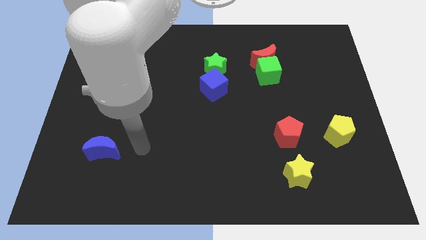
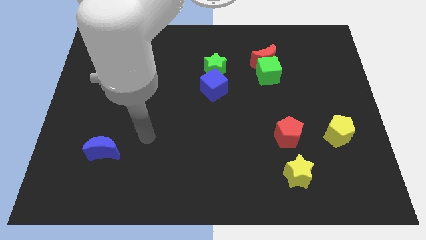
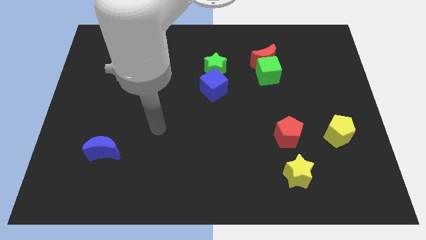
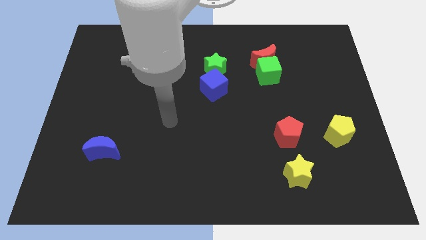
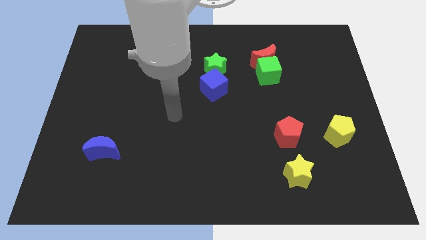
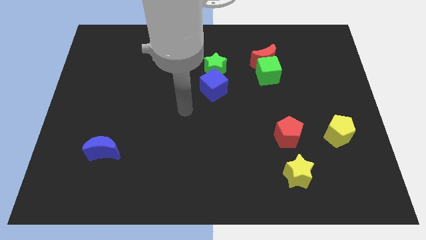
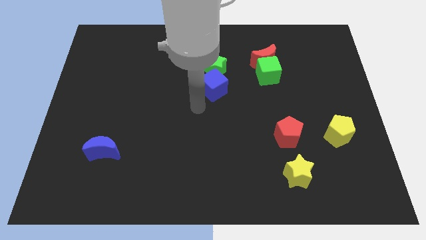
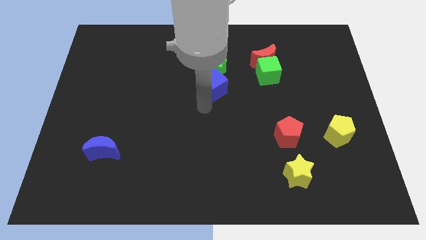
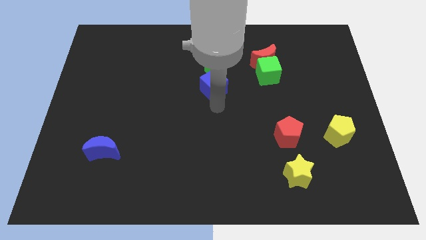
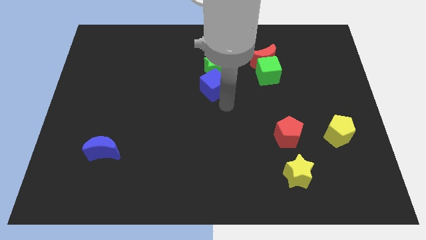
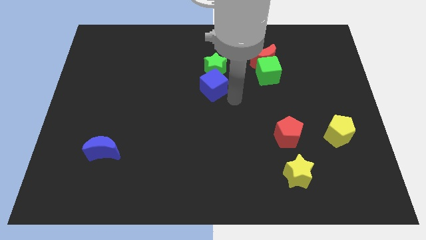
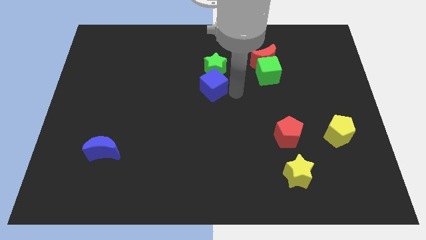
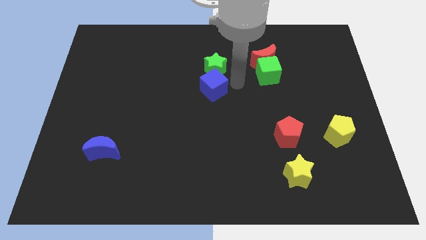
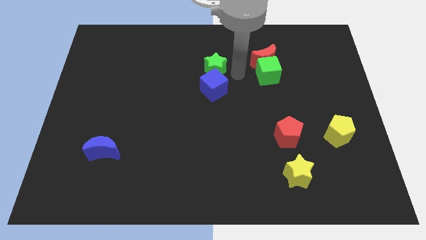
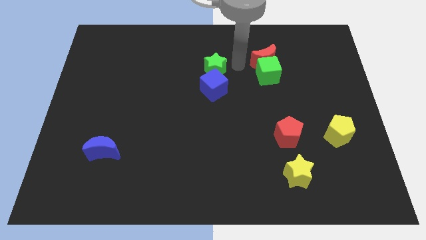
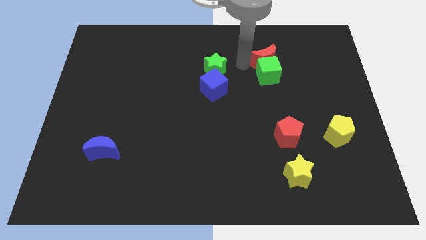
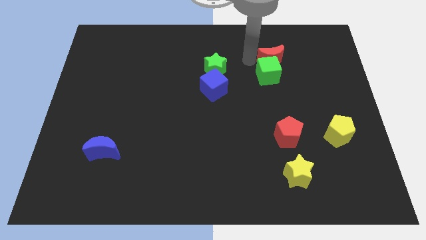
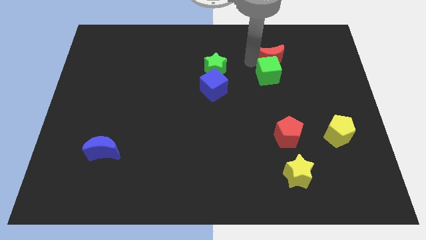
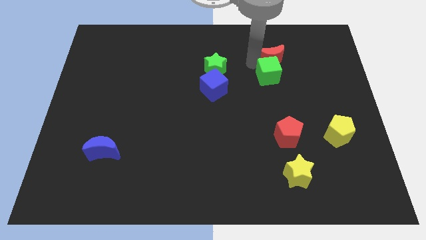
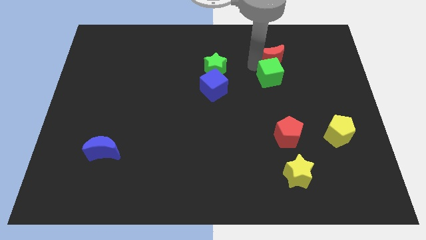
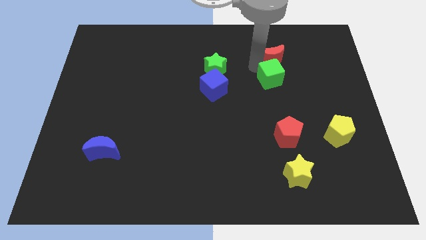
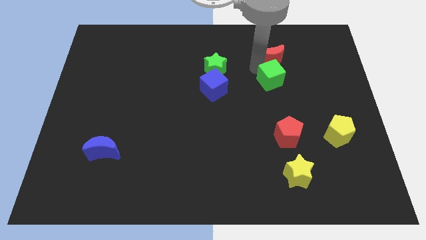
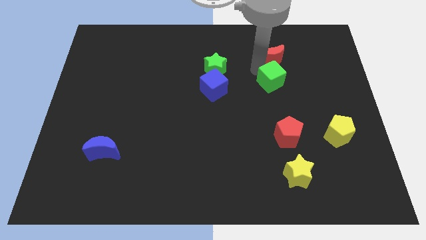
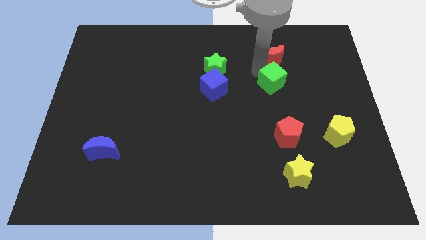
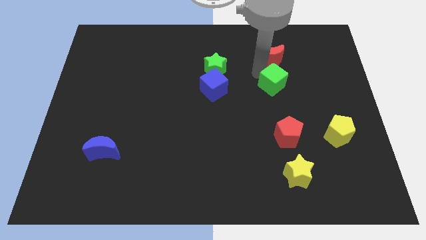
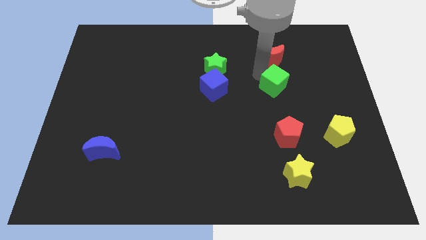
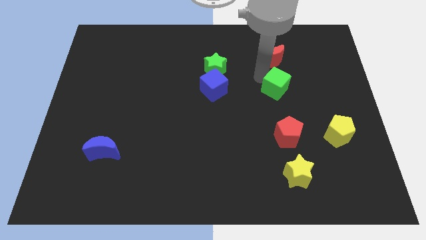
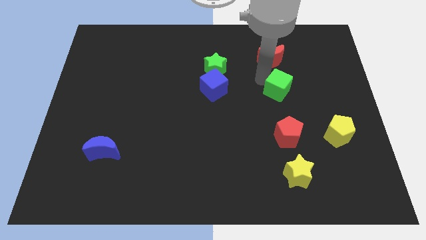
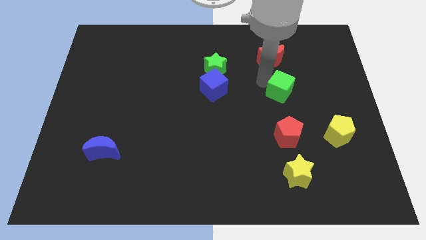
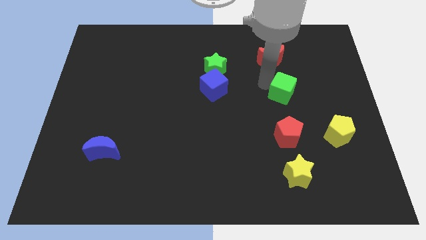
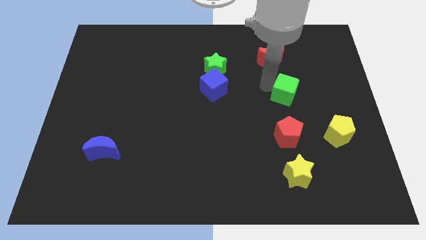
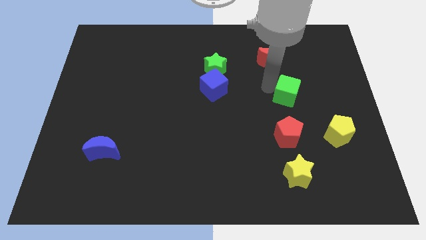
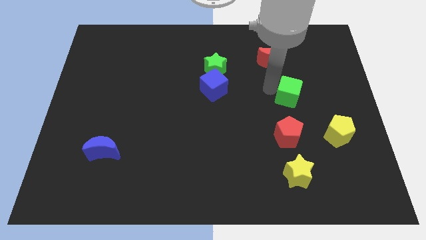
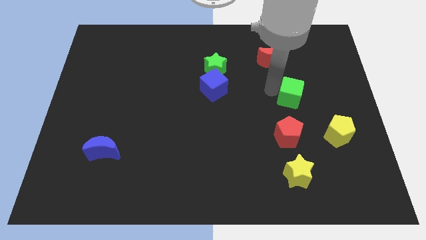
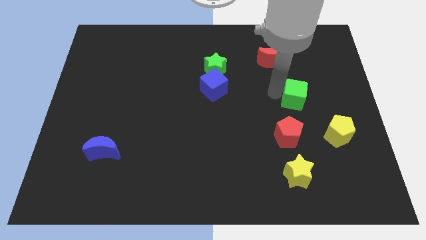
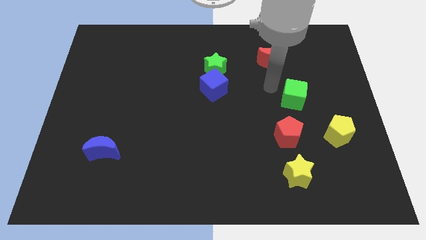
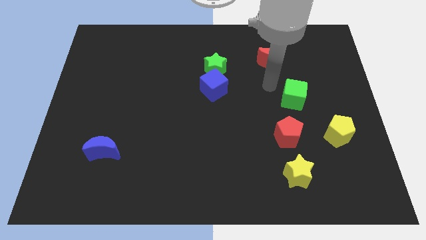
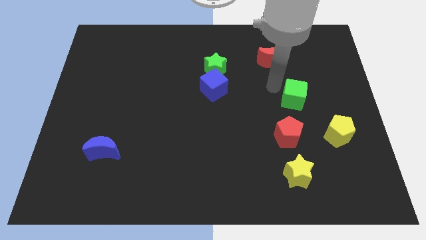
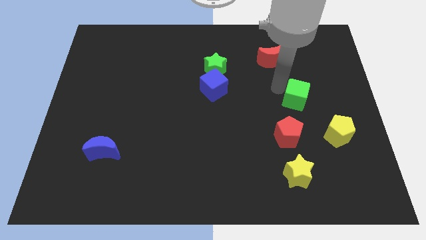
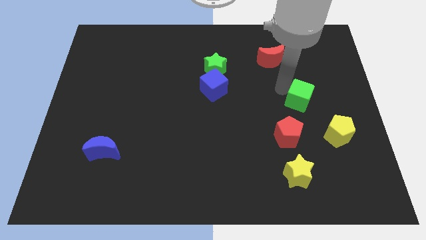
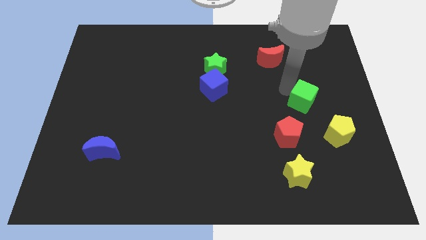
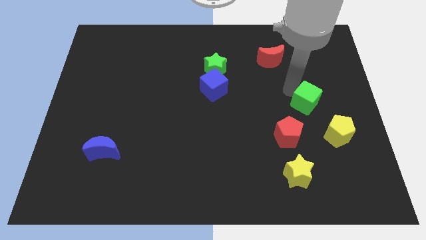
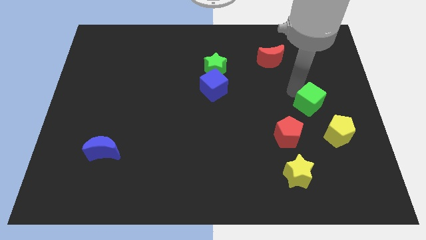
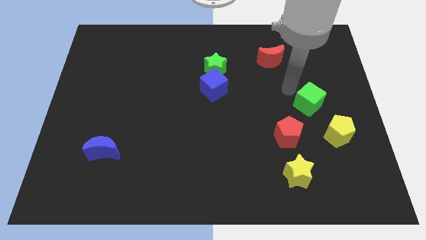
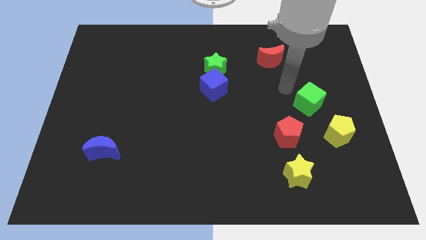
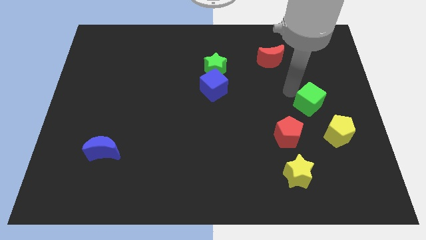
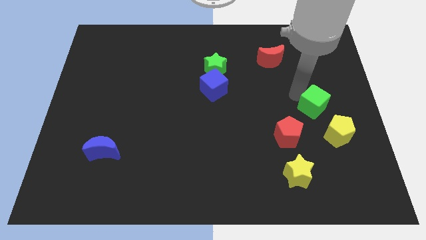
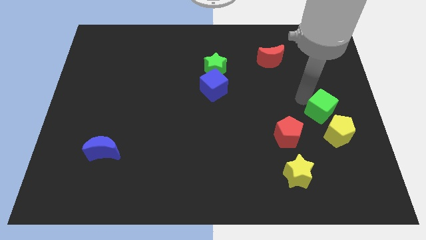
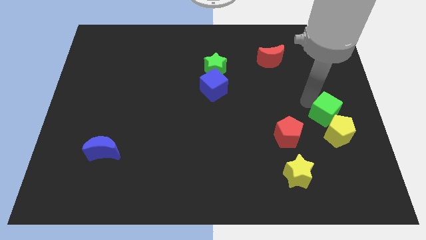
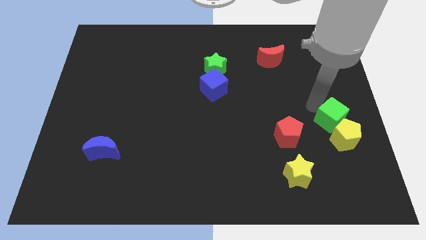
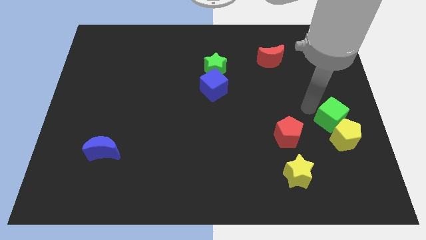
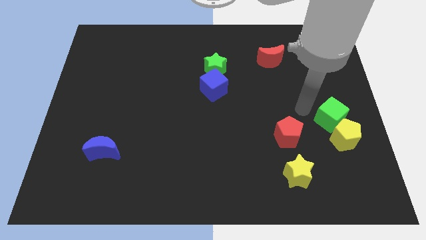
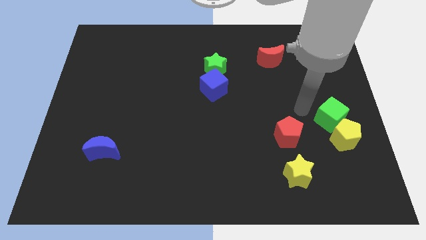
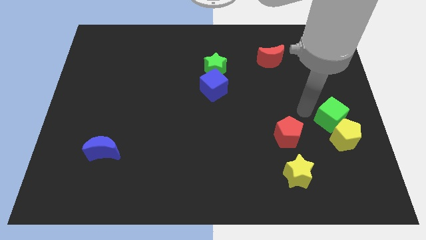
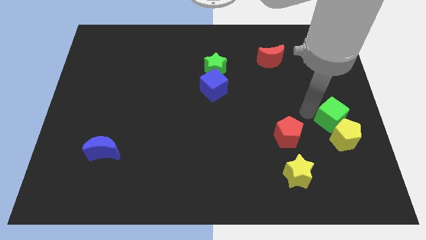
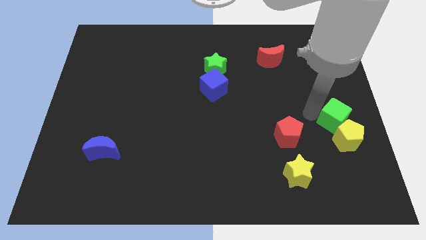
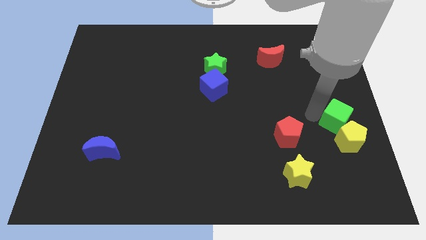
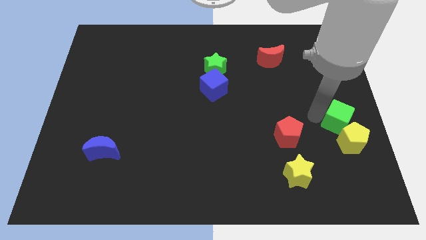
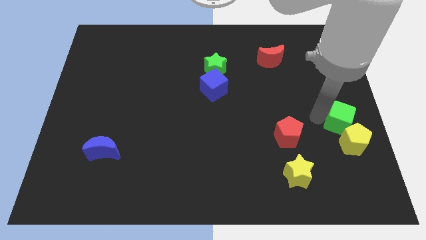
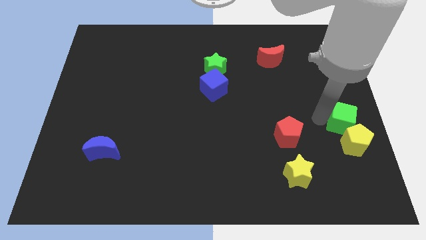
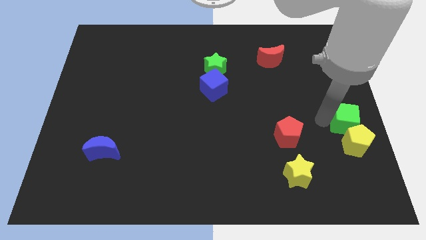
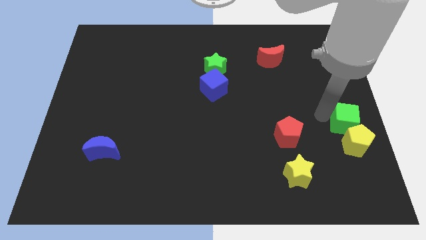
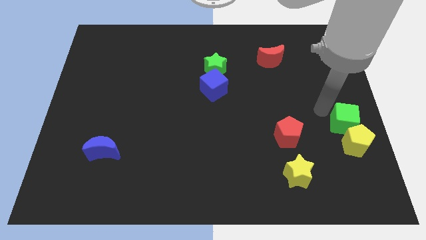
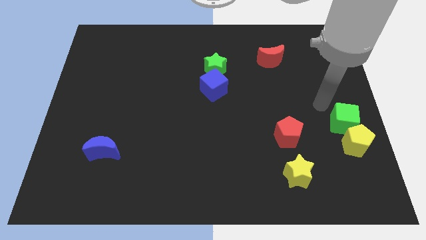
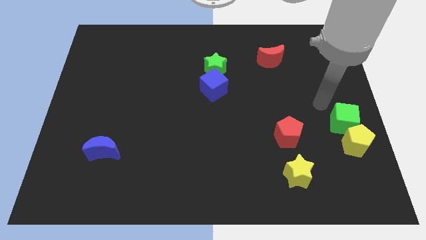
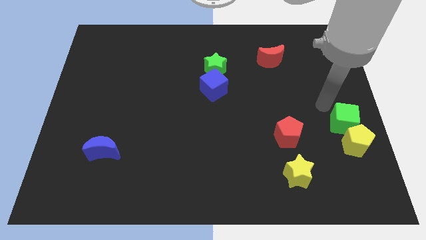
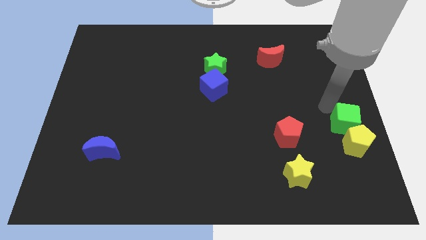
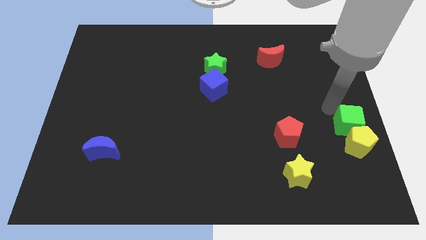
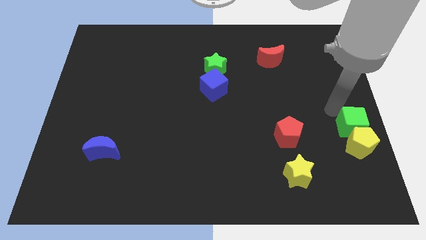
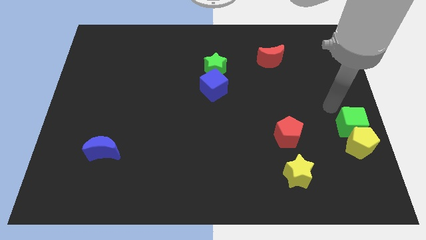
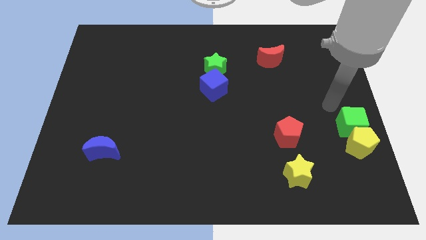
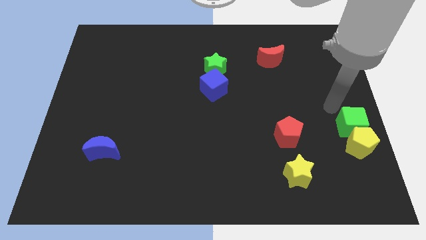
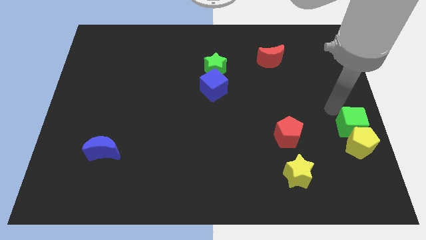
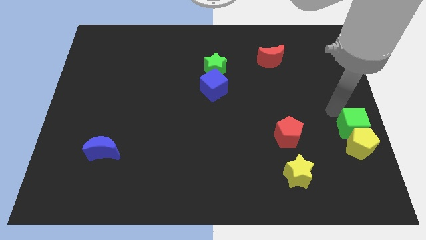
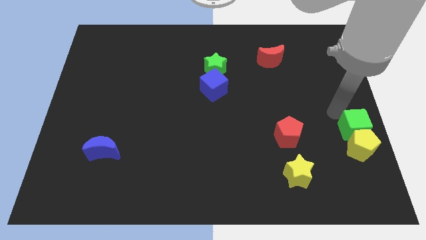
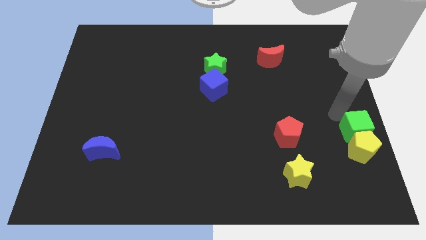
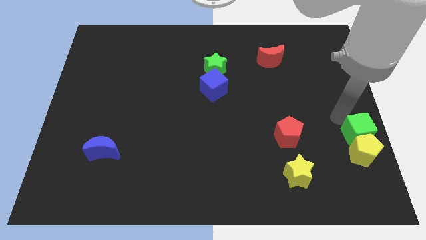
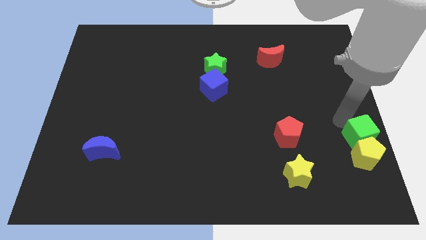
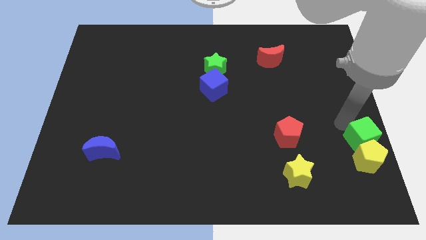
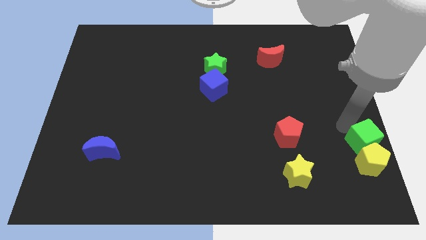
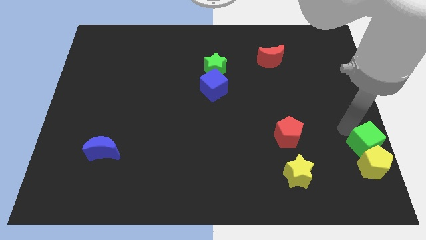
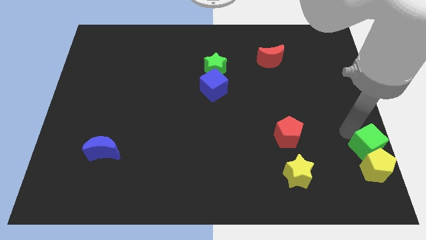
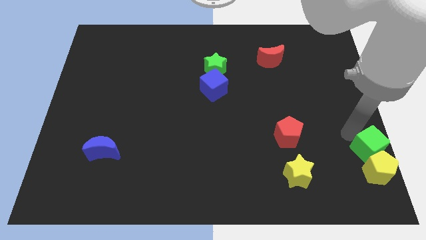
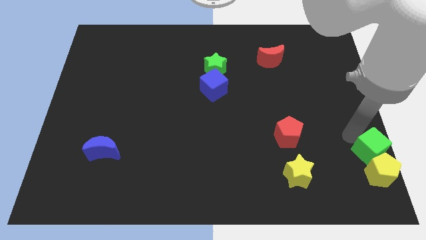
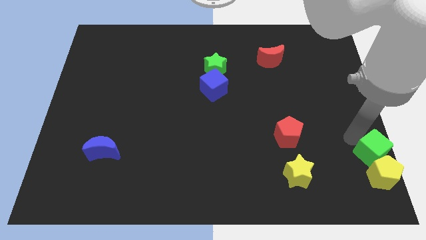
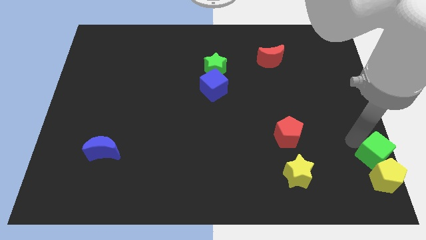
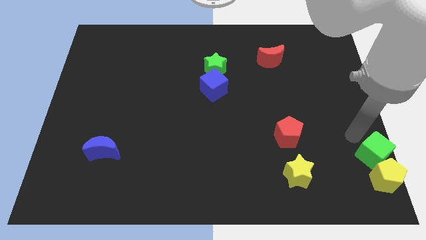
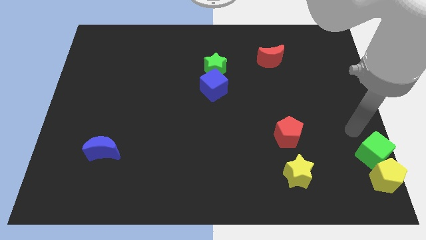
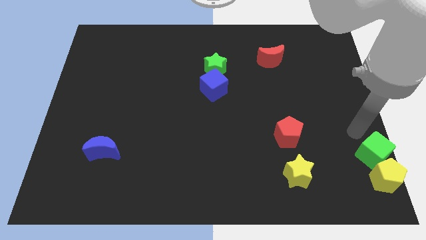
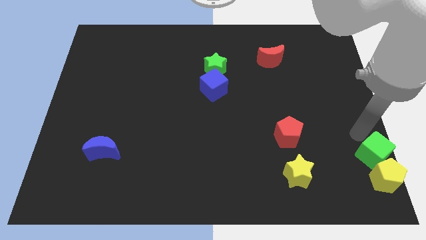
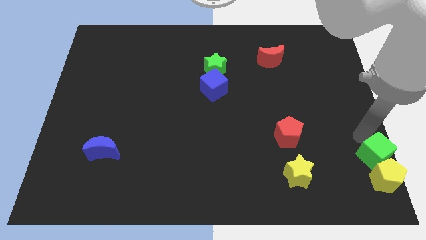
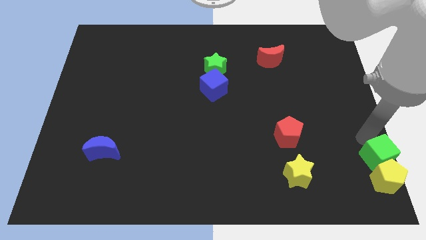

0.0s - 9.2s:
move the green cube to the bottom right of the board
